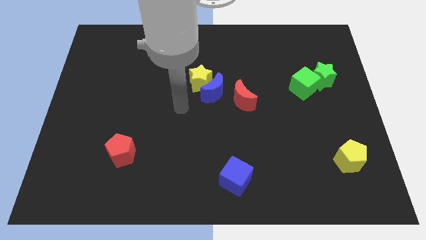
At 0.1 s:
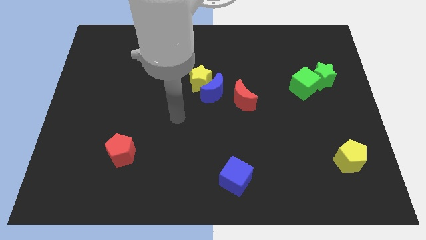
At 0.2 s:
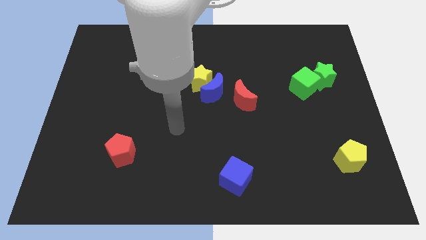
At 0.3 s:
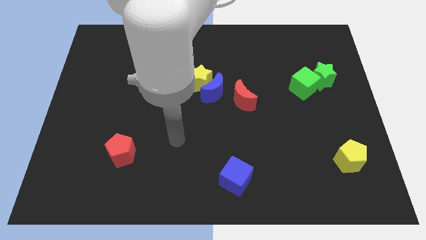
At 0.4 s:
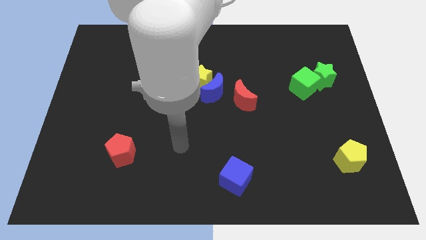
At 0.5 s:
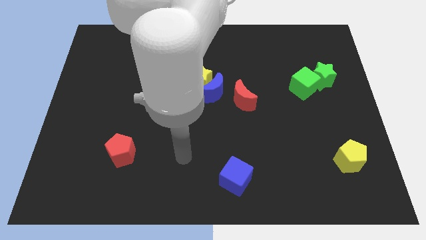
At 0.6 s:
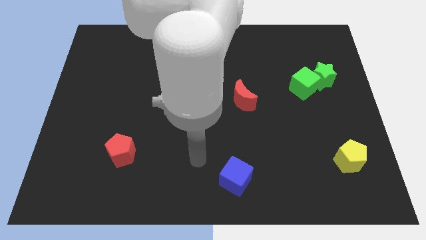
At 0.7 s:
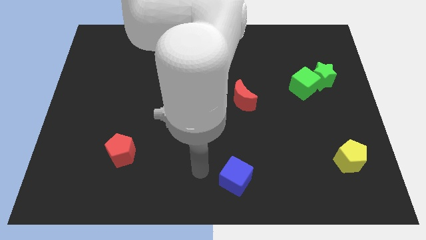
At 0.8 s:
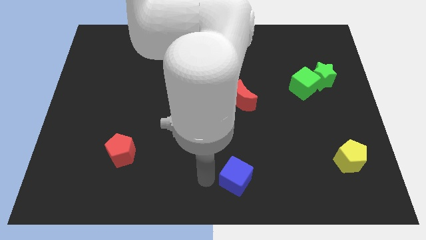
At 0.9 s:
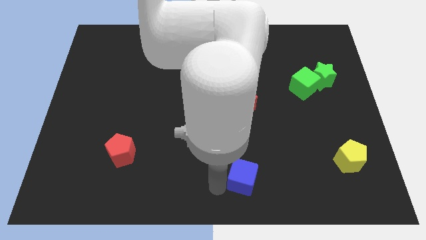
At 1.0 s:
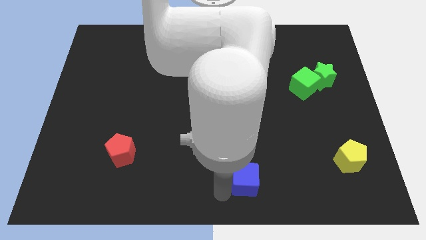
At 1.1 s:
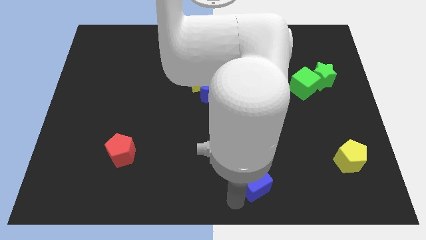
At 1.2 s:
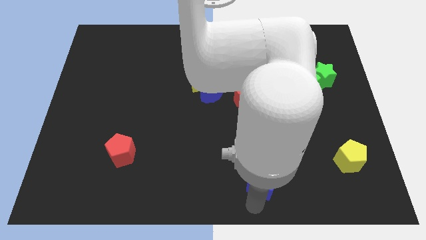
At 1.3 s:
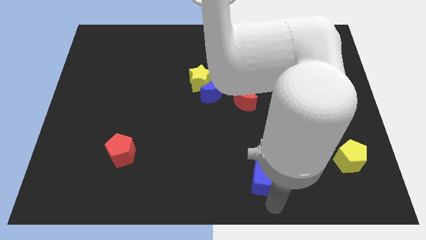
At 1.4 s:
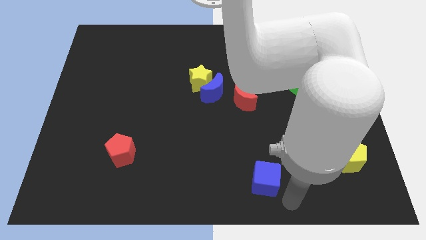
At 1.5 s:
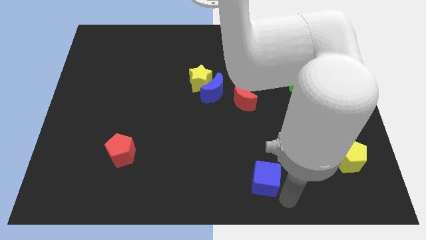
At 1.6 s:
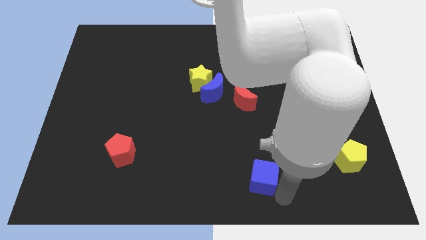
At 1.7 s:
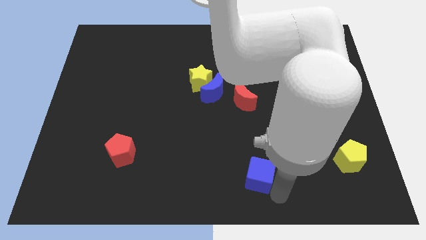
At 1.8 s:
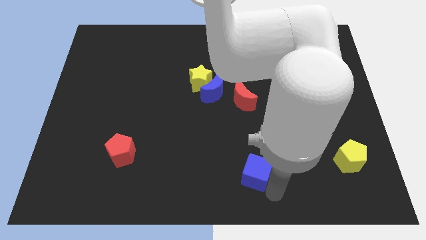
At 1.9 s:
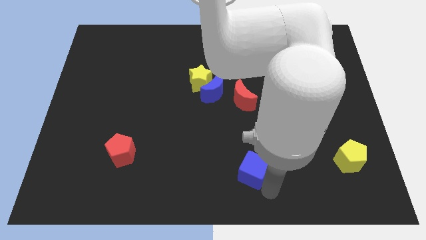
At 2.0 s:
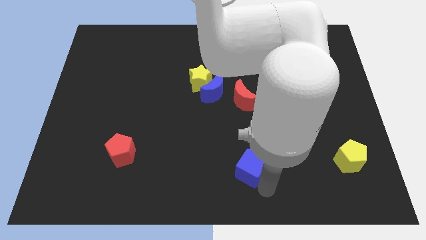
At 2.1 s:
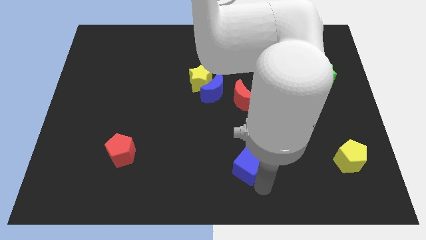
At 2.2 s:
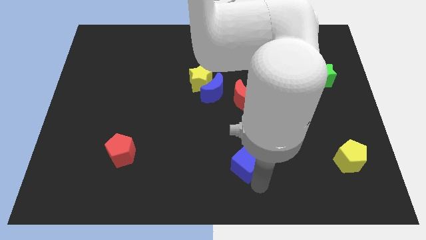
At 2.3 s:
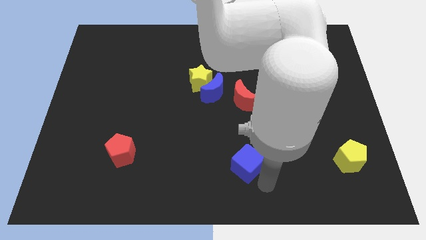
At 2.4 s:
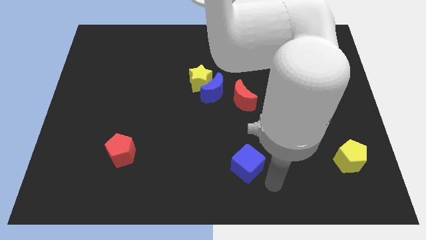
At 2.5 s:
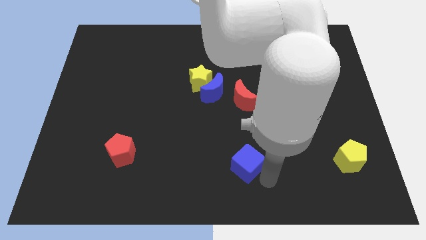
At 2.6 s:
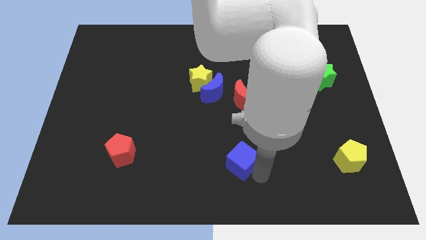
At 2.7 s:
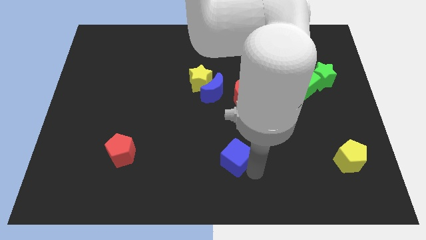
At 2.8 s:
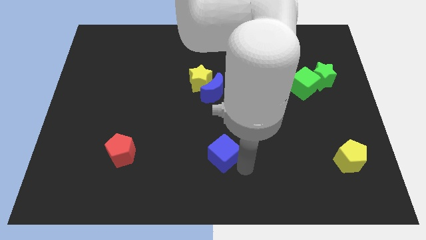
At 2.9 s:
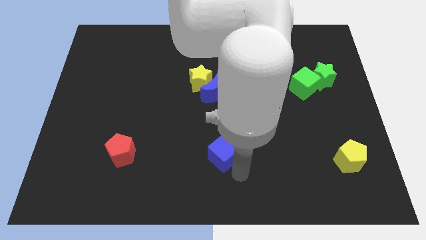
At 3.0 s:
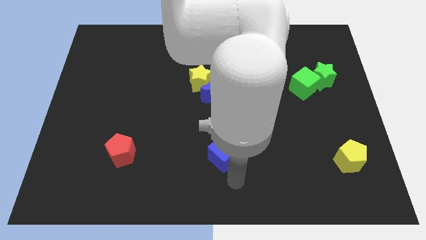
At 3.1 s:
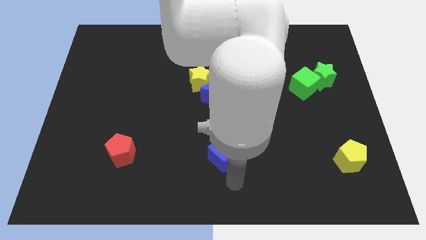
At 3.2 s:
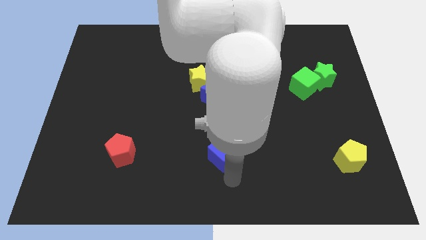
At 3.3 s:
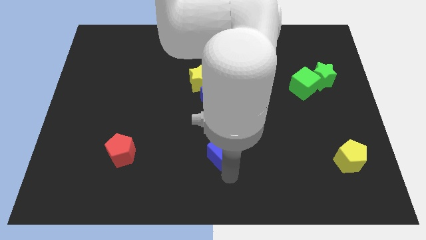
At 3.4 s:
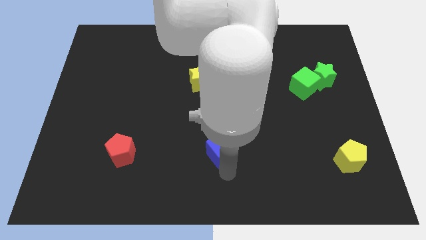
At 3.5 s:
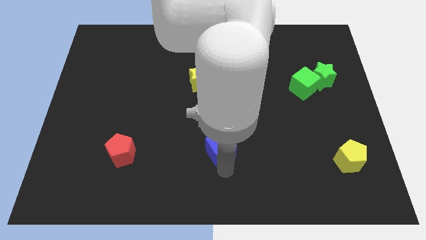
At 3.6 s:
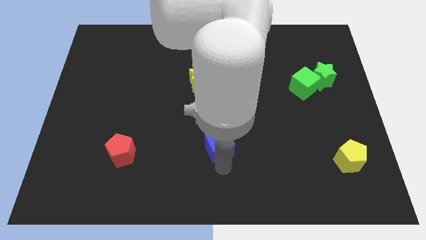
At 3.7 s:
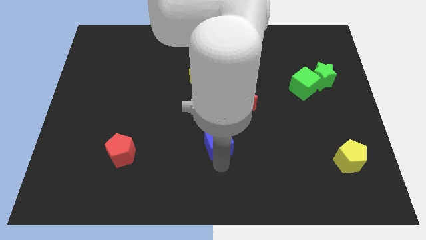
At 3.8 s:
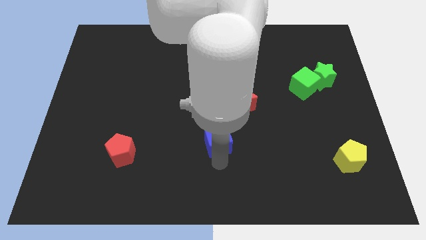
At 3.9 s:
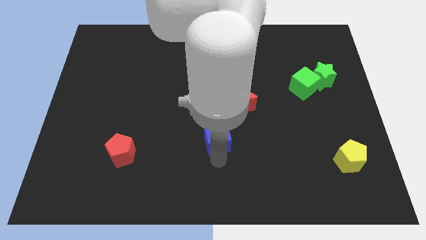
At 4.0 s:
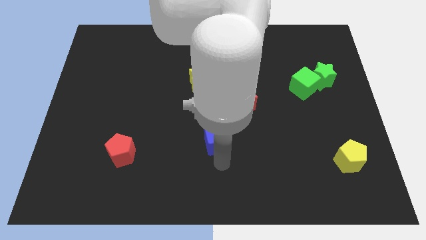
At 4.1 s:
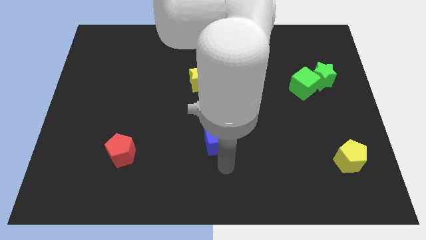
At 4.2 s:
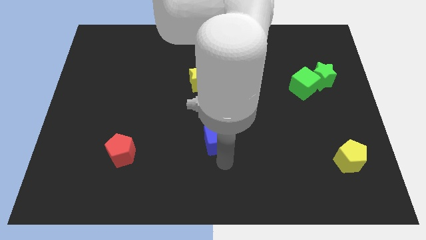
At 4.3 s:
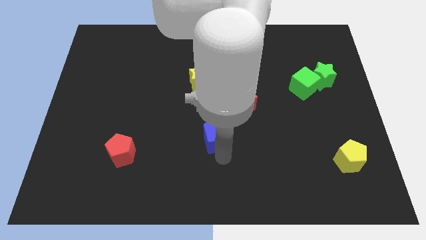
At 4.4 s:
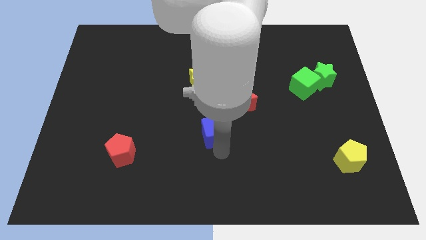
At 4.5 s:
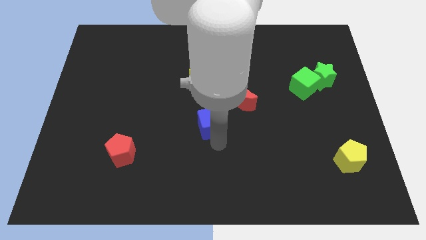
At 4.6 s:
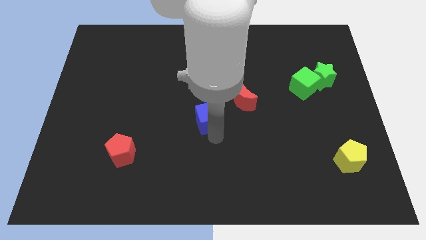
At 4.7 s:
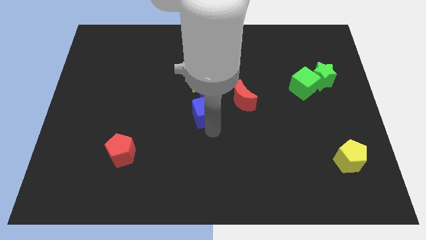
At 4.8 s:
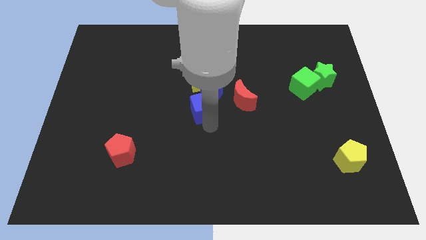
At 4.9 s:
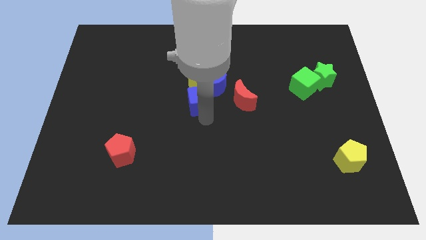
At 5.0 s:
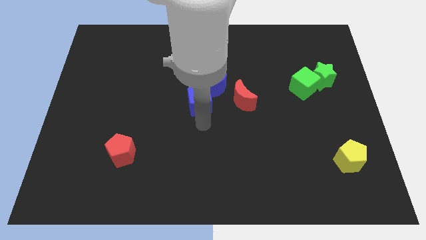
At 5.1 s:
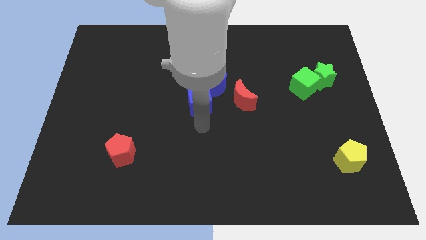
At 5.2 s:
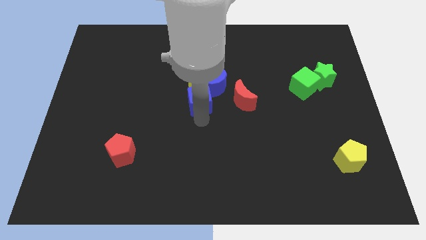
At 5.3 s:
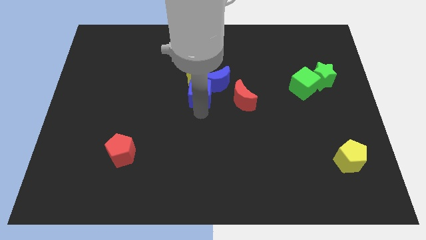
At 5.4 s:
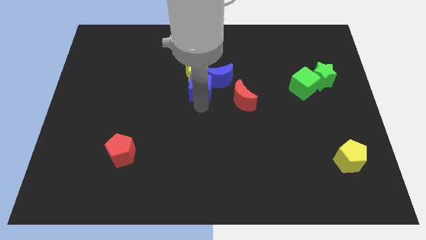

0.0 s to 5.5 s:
move the blue cube close to the yellow star
